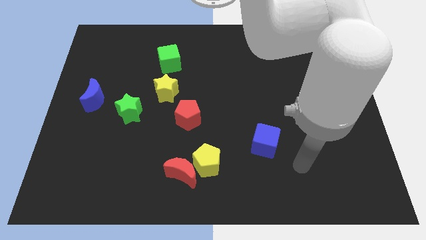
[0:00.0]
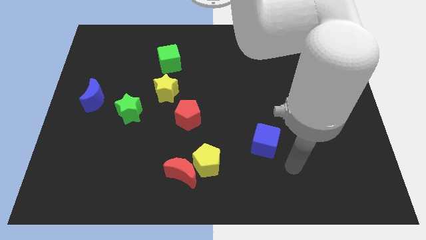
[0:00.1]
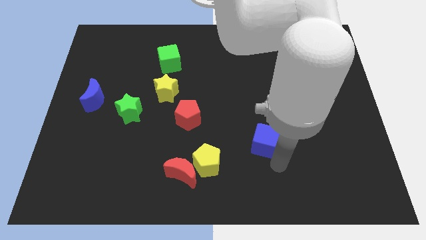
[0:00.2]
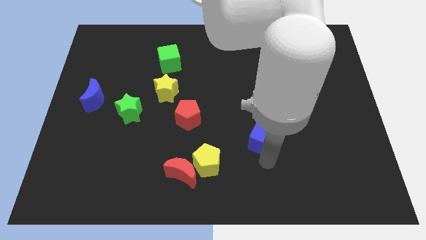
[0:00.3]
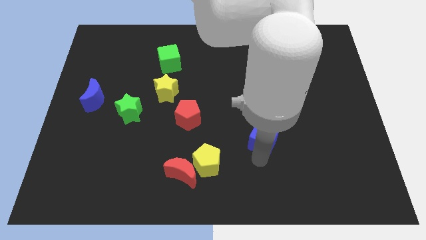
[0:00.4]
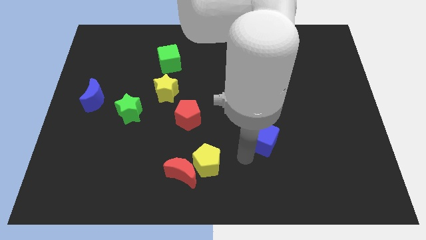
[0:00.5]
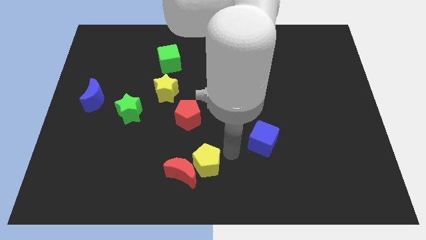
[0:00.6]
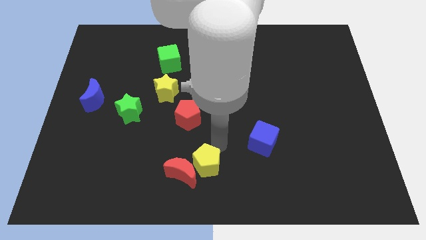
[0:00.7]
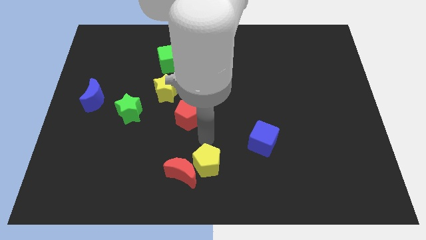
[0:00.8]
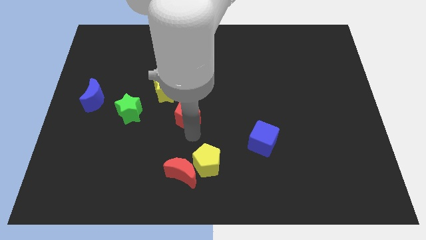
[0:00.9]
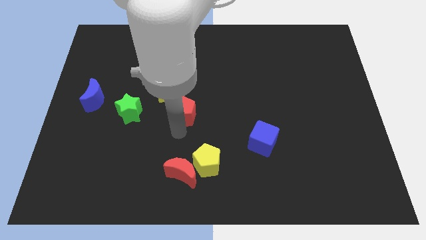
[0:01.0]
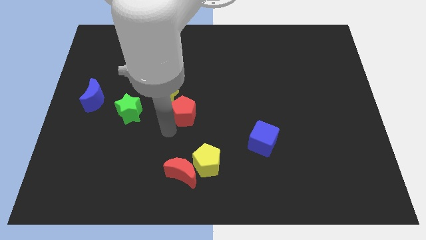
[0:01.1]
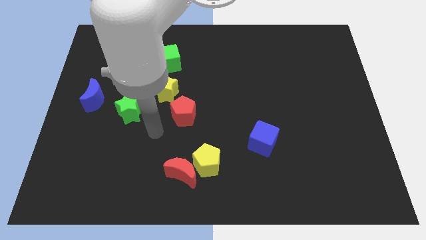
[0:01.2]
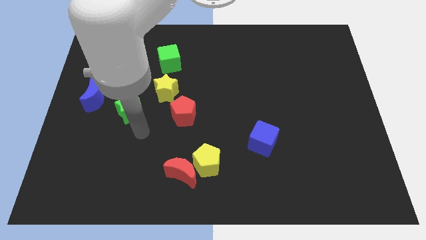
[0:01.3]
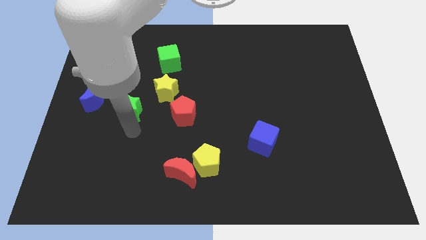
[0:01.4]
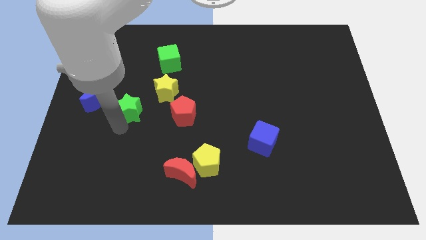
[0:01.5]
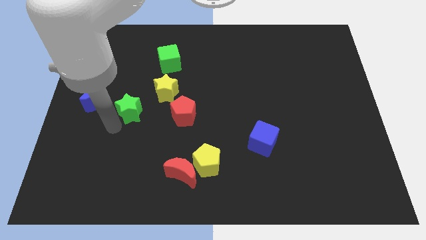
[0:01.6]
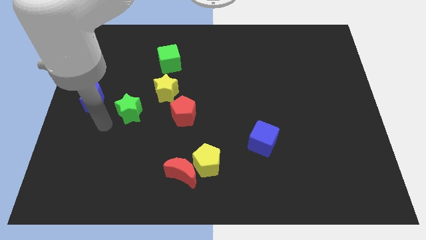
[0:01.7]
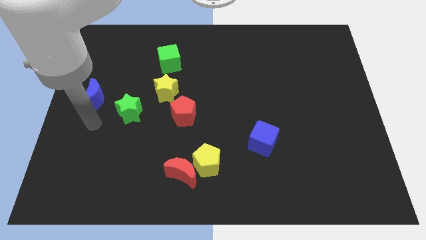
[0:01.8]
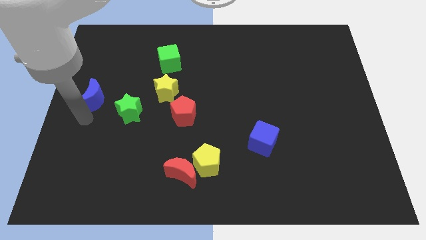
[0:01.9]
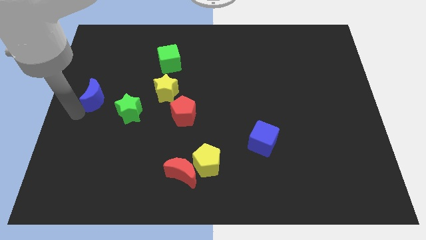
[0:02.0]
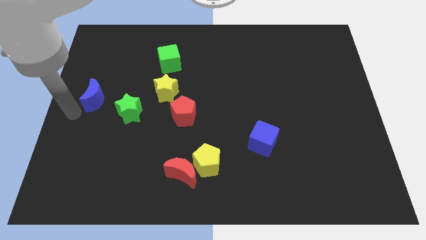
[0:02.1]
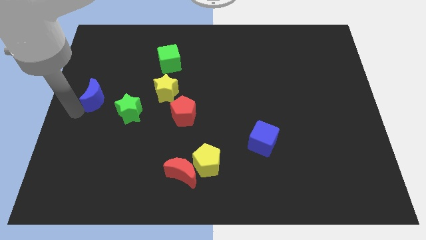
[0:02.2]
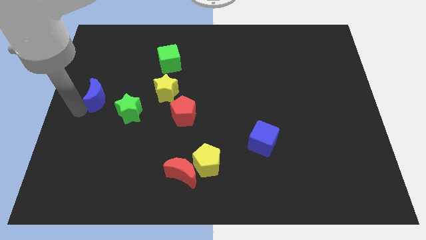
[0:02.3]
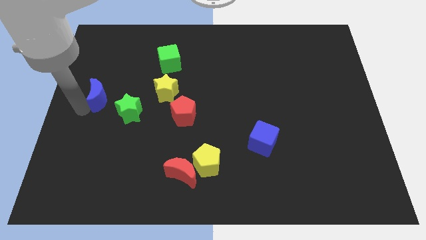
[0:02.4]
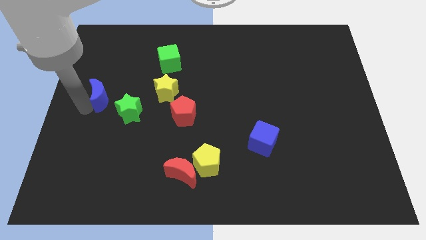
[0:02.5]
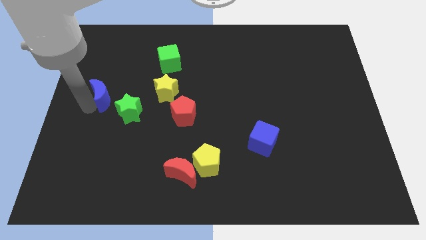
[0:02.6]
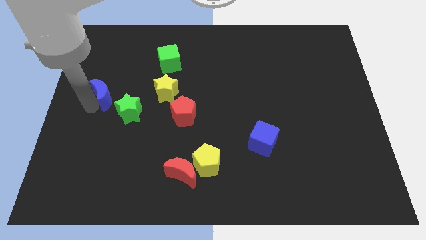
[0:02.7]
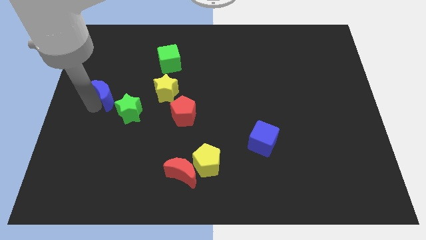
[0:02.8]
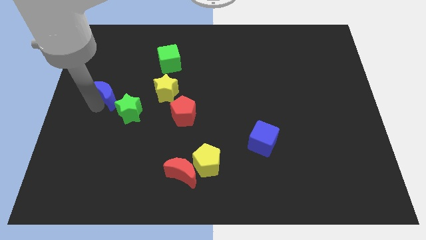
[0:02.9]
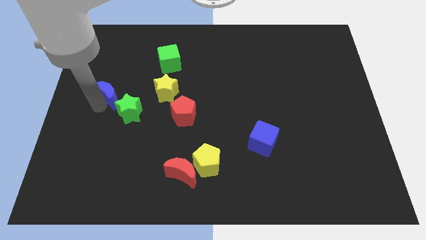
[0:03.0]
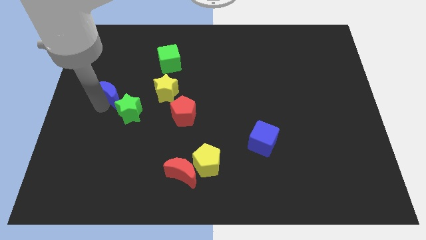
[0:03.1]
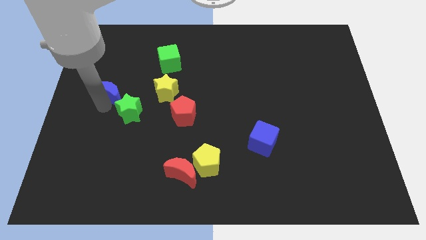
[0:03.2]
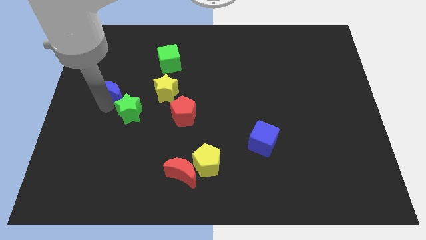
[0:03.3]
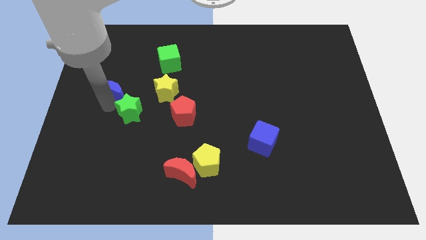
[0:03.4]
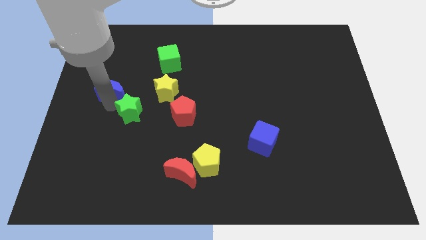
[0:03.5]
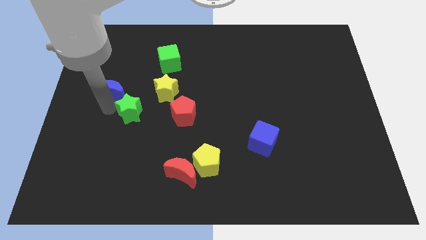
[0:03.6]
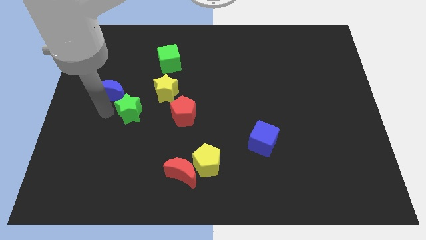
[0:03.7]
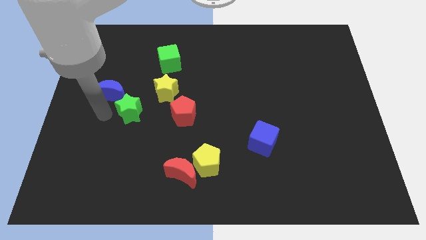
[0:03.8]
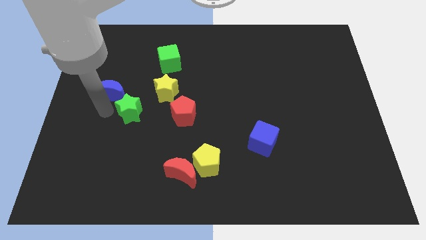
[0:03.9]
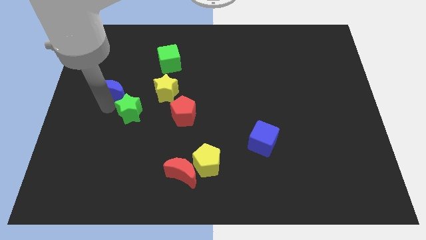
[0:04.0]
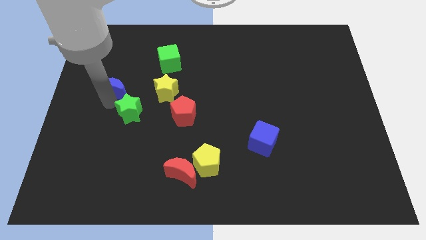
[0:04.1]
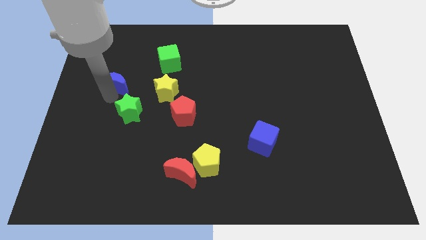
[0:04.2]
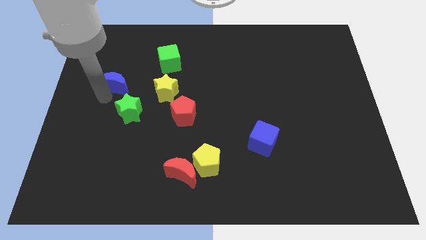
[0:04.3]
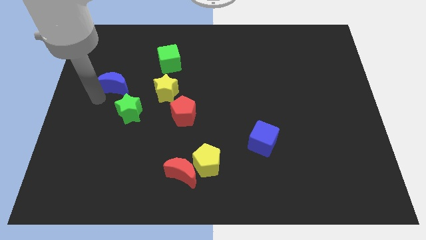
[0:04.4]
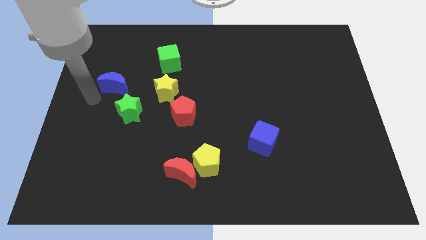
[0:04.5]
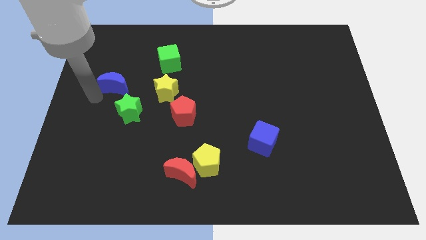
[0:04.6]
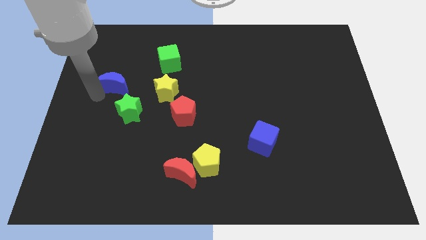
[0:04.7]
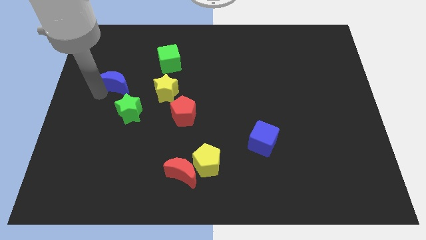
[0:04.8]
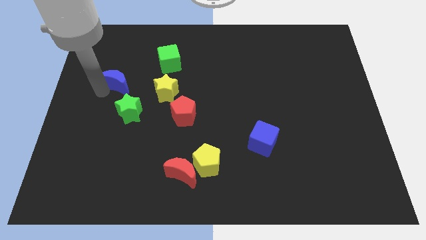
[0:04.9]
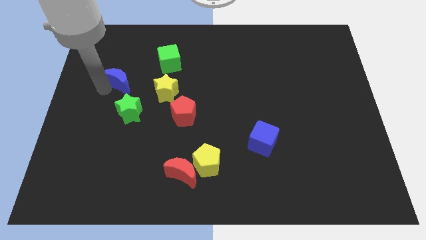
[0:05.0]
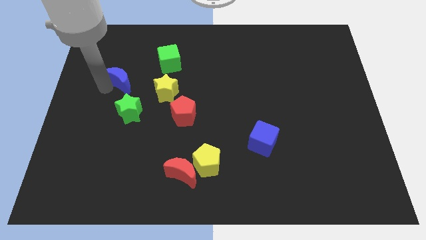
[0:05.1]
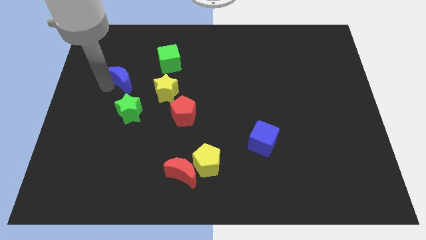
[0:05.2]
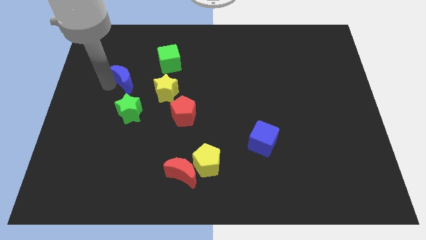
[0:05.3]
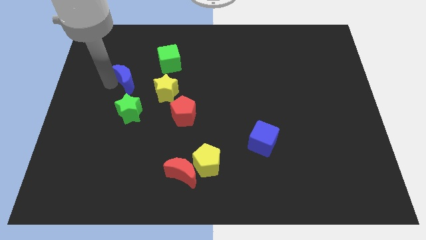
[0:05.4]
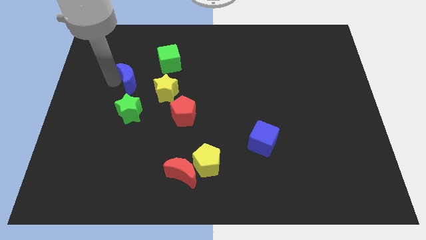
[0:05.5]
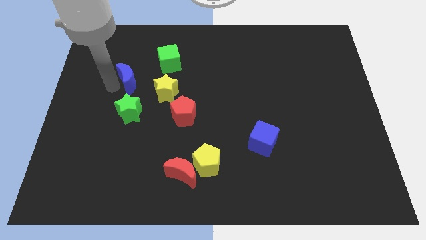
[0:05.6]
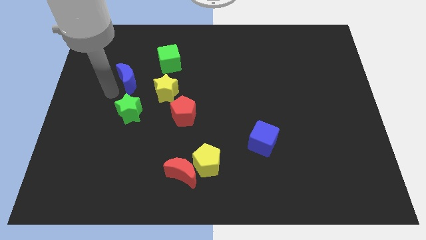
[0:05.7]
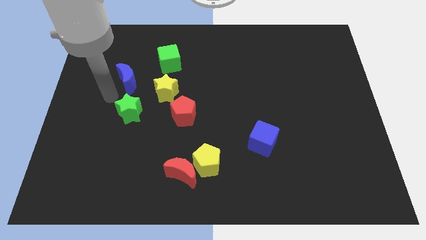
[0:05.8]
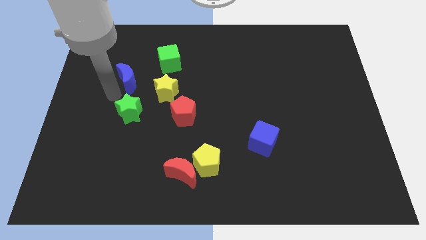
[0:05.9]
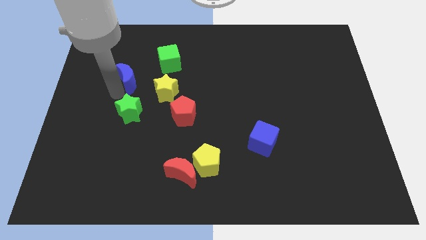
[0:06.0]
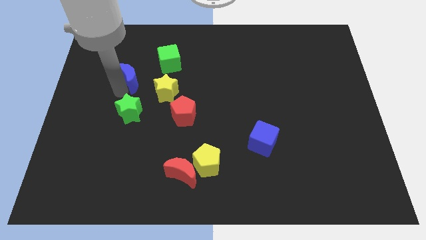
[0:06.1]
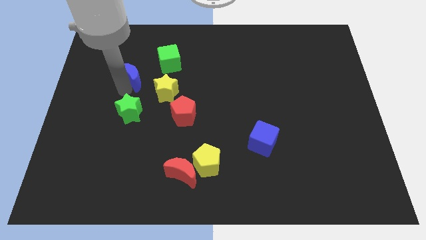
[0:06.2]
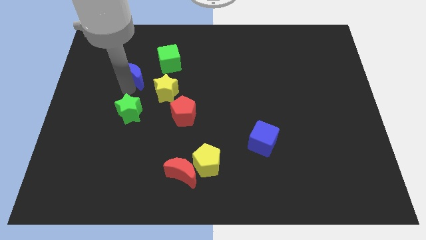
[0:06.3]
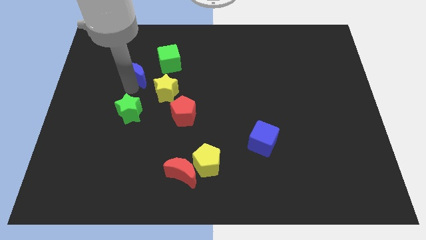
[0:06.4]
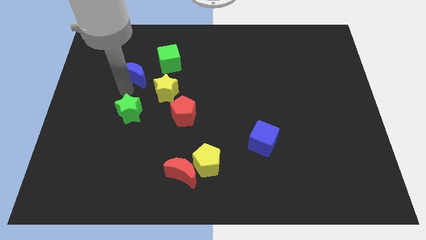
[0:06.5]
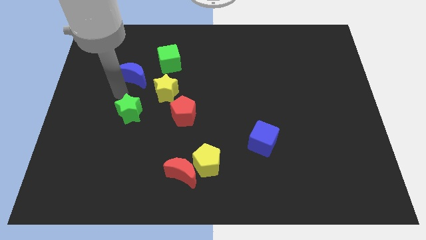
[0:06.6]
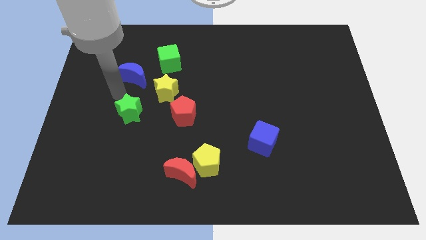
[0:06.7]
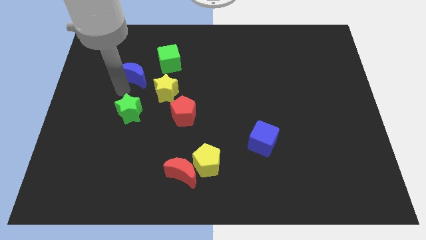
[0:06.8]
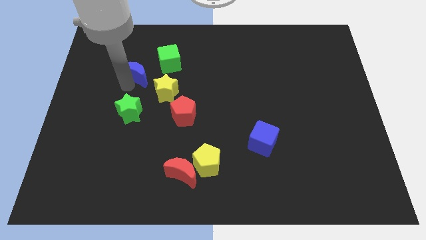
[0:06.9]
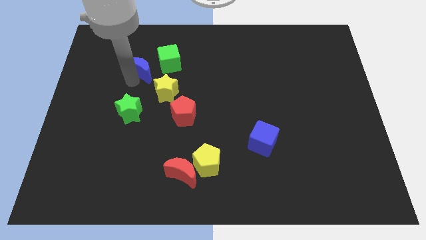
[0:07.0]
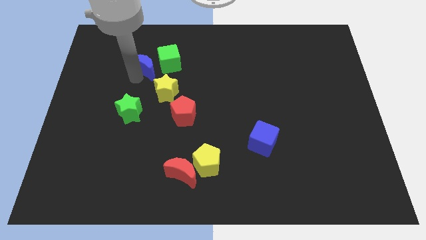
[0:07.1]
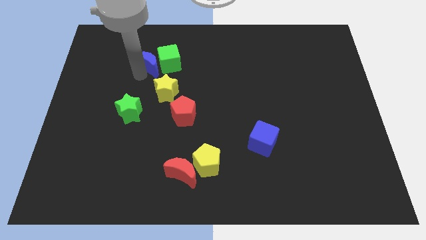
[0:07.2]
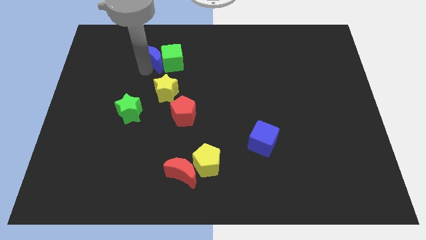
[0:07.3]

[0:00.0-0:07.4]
move the blue moon to the top side of the yellow star
